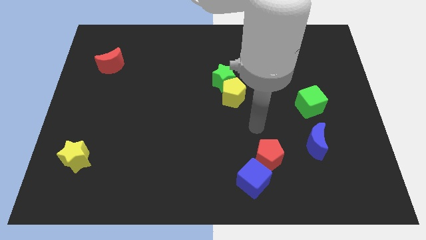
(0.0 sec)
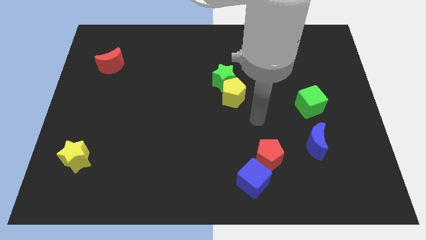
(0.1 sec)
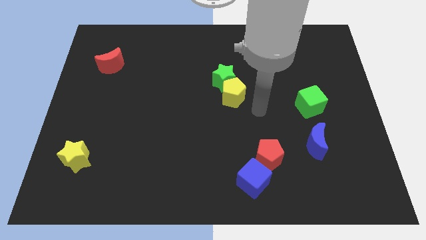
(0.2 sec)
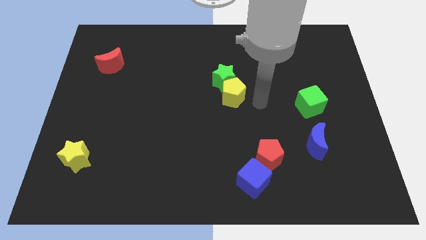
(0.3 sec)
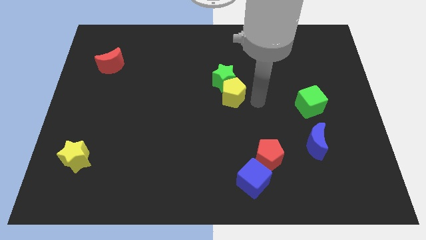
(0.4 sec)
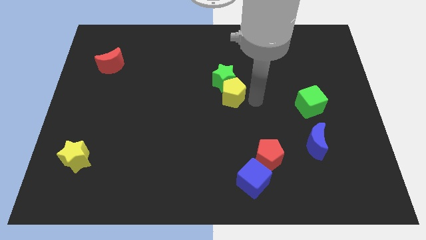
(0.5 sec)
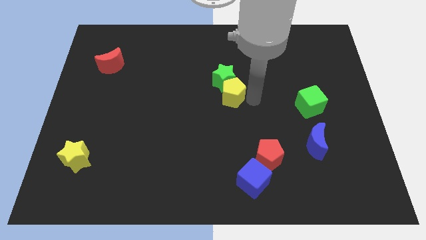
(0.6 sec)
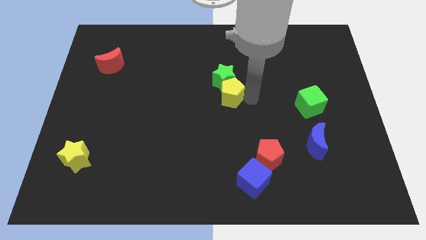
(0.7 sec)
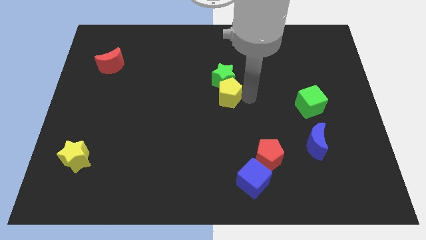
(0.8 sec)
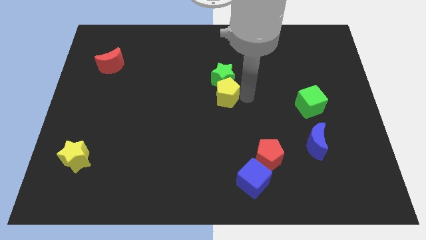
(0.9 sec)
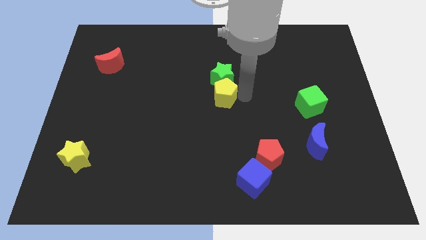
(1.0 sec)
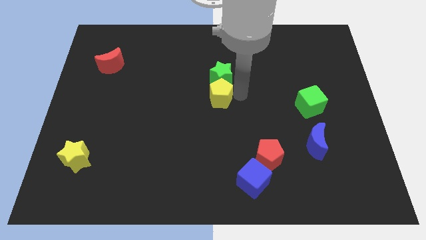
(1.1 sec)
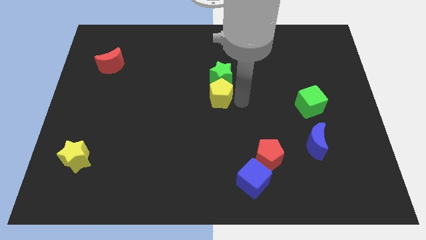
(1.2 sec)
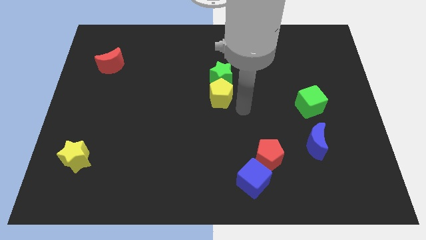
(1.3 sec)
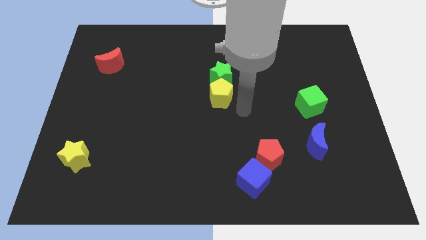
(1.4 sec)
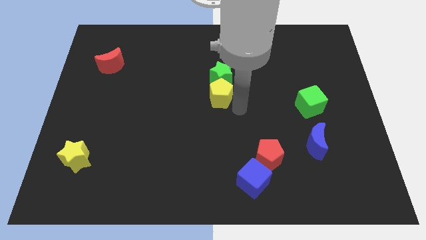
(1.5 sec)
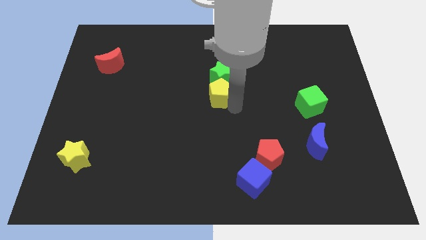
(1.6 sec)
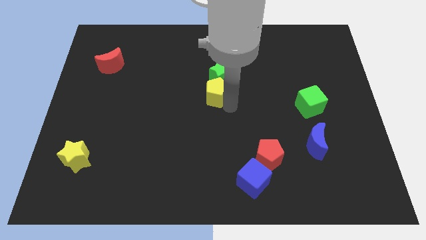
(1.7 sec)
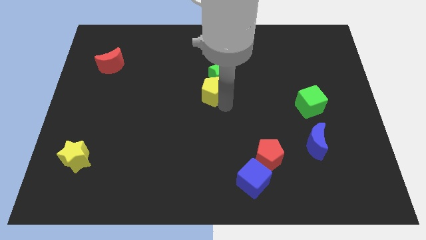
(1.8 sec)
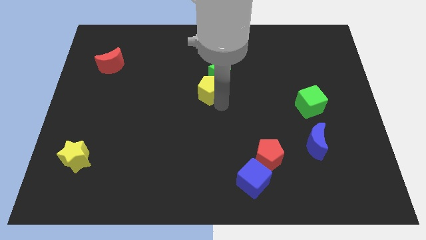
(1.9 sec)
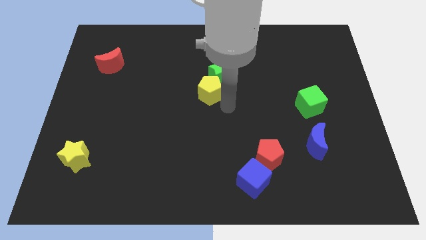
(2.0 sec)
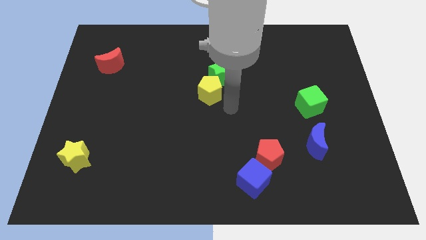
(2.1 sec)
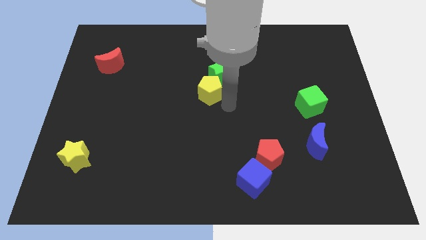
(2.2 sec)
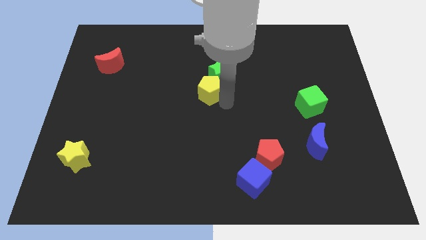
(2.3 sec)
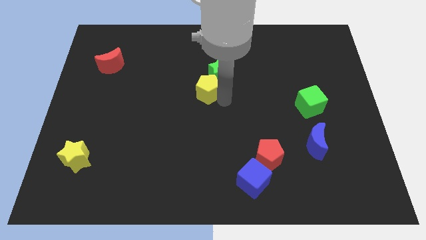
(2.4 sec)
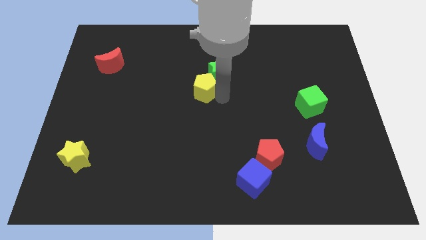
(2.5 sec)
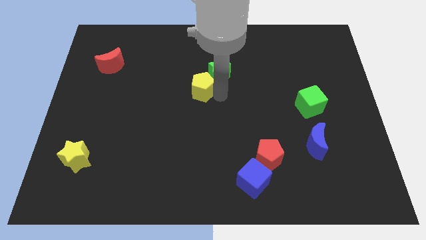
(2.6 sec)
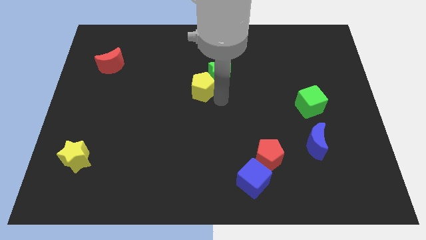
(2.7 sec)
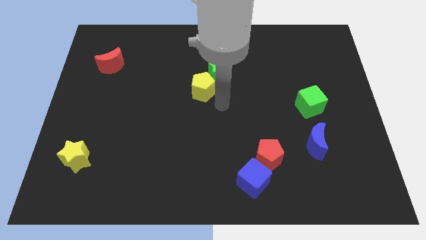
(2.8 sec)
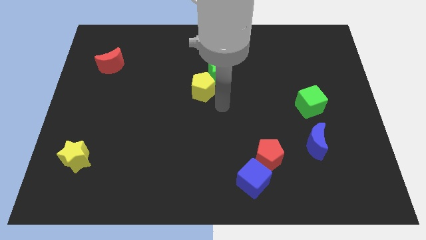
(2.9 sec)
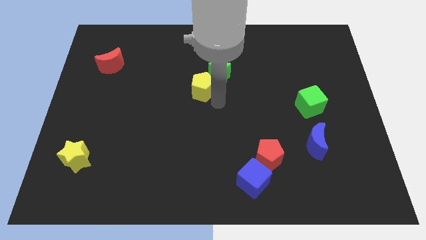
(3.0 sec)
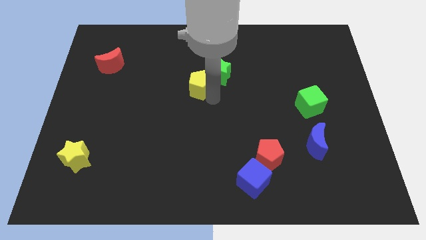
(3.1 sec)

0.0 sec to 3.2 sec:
slightly push the yellow pentagon upwards and left diagonally

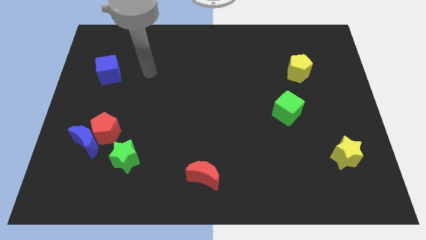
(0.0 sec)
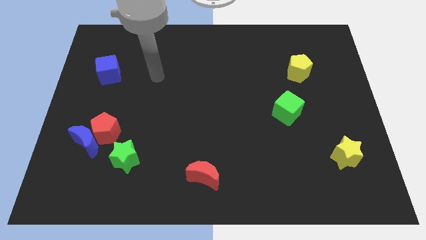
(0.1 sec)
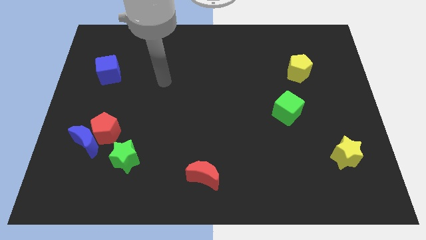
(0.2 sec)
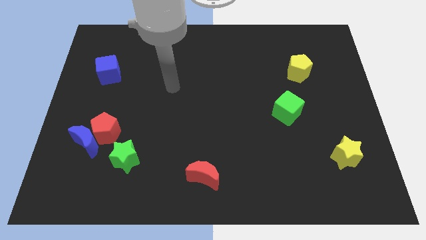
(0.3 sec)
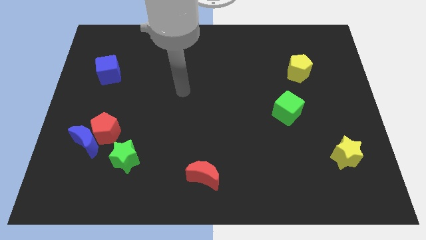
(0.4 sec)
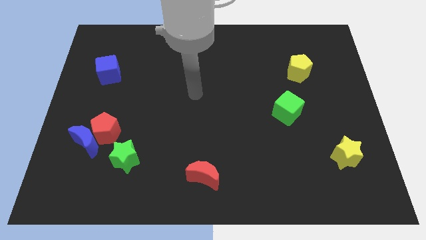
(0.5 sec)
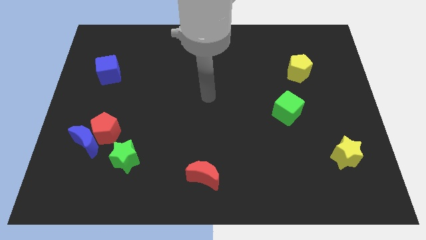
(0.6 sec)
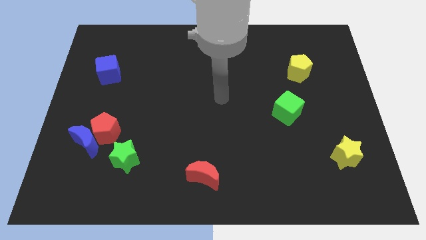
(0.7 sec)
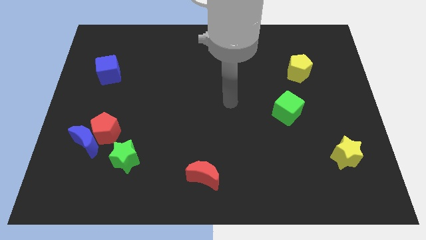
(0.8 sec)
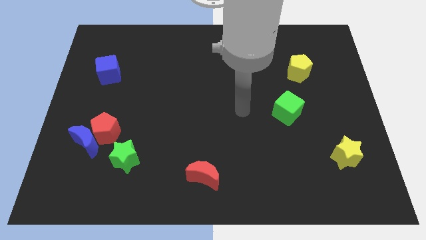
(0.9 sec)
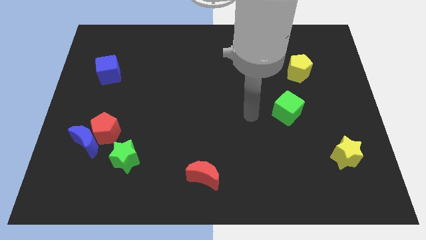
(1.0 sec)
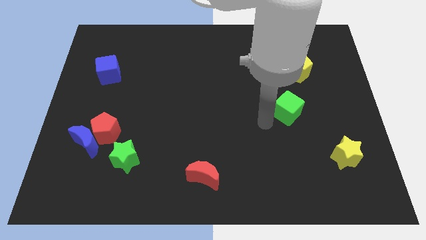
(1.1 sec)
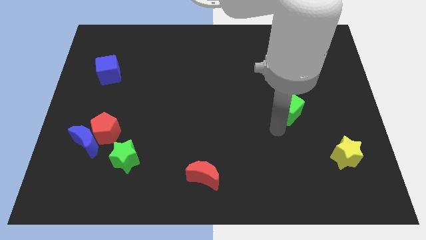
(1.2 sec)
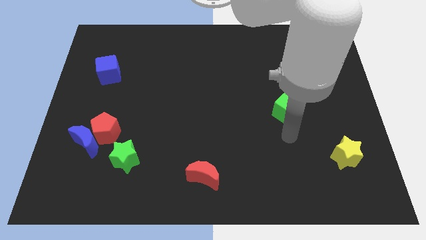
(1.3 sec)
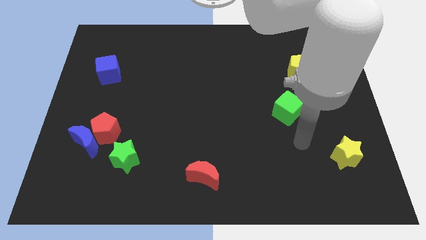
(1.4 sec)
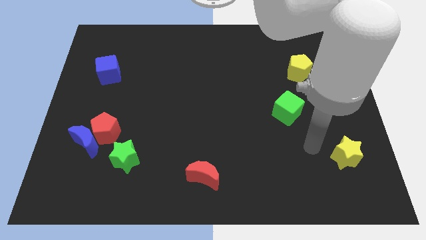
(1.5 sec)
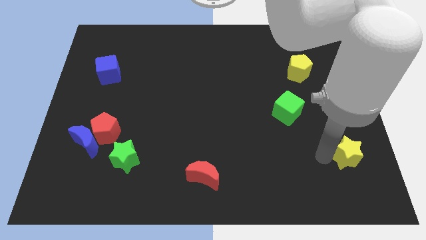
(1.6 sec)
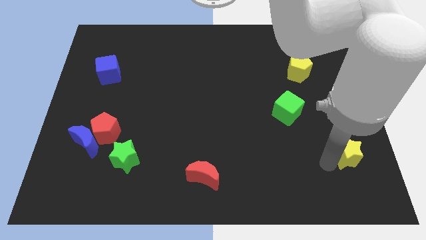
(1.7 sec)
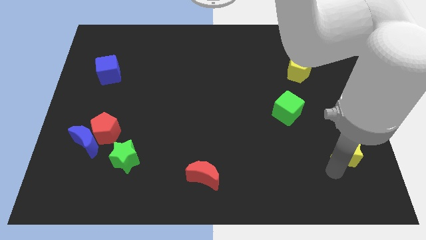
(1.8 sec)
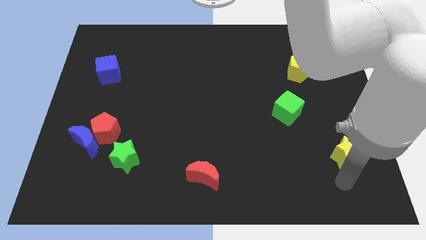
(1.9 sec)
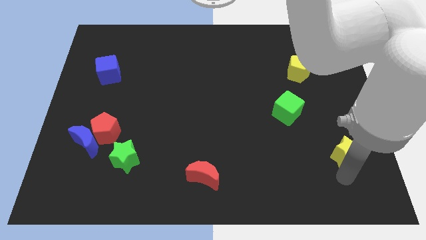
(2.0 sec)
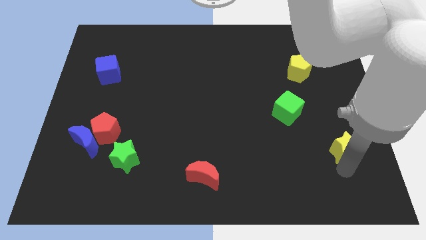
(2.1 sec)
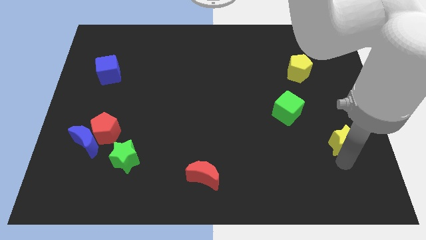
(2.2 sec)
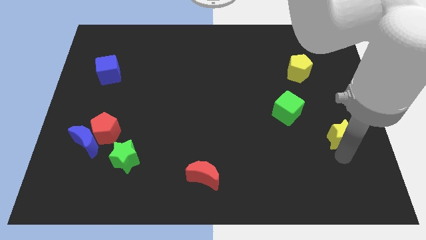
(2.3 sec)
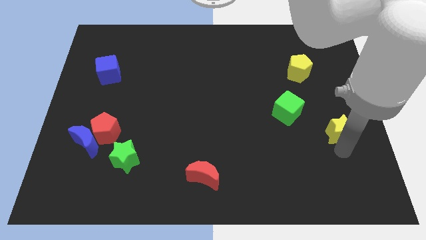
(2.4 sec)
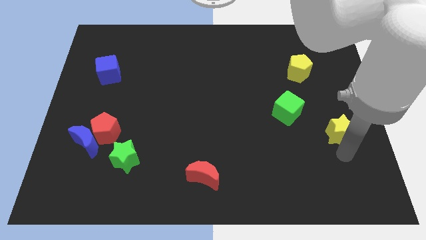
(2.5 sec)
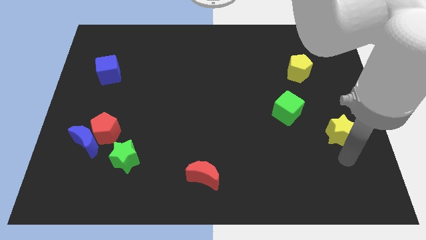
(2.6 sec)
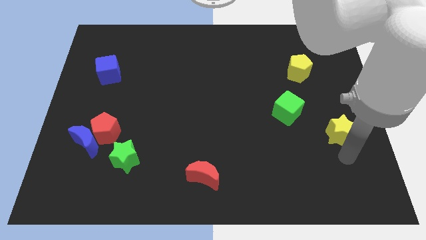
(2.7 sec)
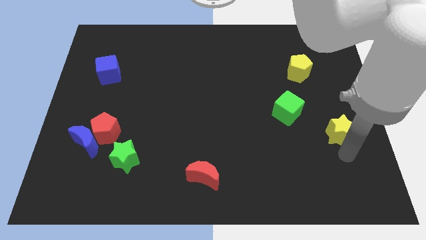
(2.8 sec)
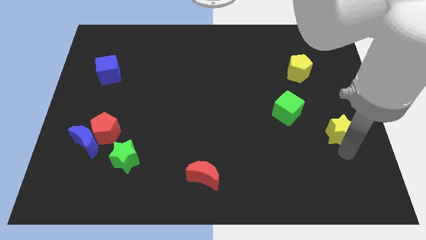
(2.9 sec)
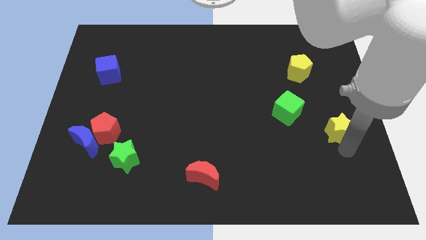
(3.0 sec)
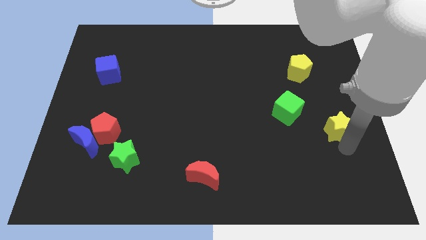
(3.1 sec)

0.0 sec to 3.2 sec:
slightly slide the yellow star upwards

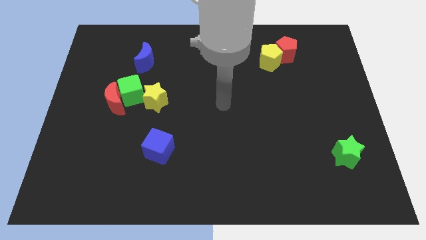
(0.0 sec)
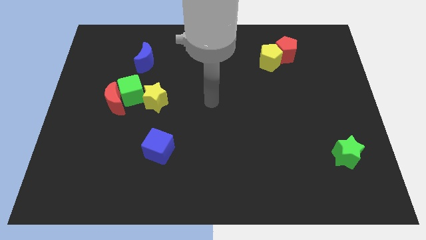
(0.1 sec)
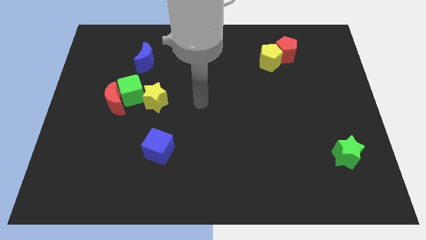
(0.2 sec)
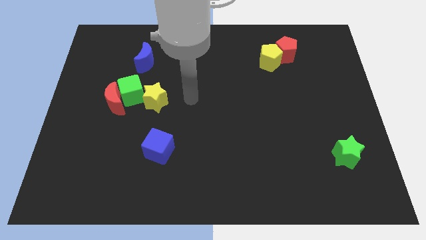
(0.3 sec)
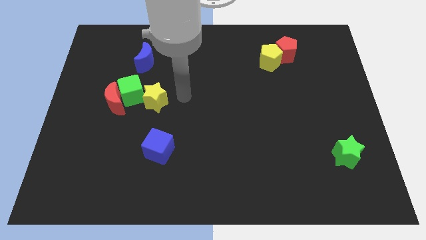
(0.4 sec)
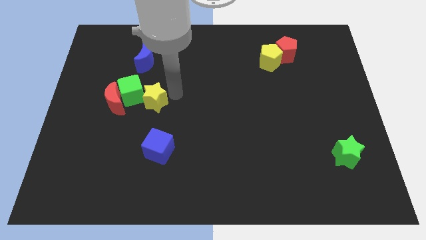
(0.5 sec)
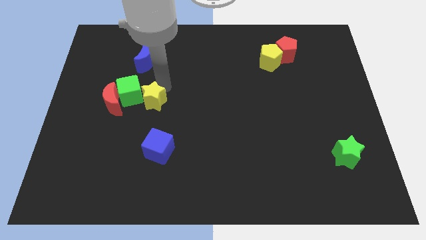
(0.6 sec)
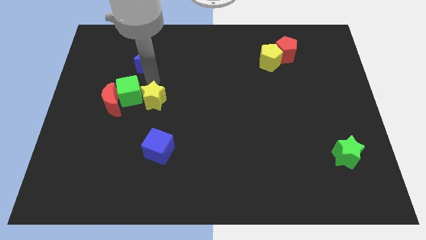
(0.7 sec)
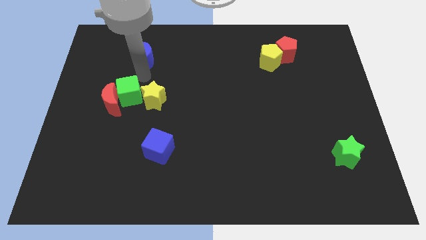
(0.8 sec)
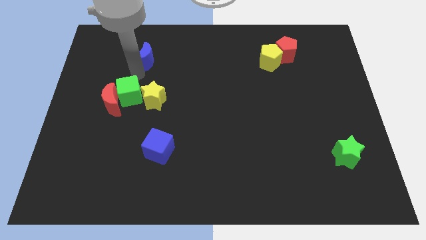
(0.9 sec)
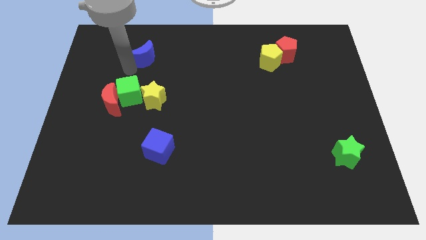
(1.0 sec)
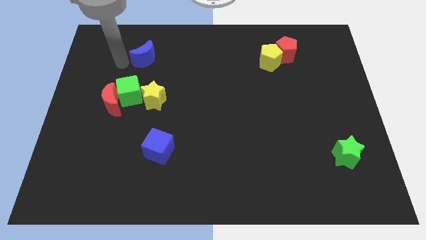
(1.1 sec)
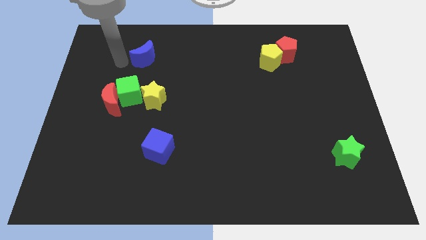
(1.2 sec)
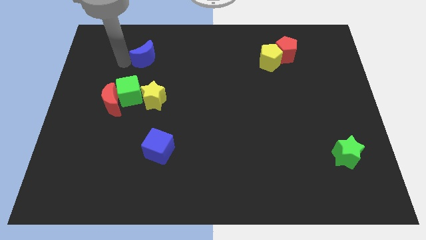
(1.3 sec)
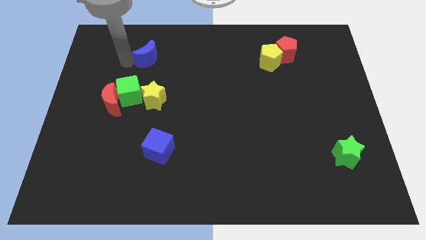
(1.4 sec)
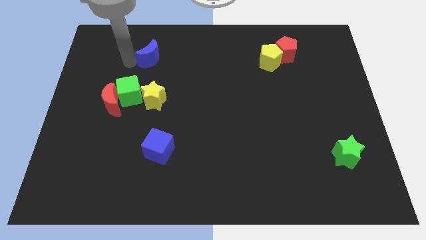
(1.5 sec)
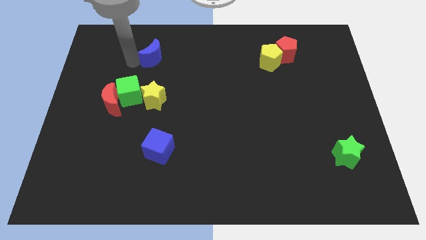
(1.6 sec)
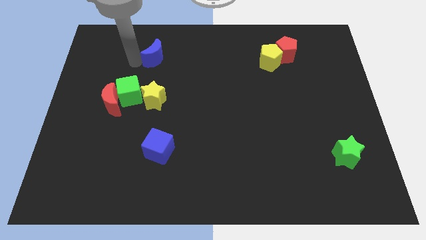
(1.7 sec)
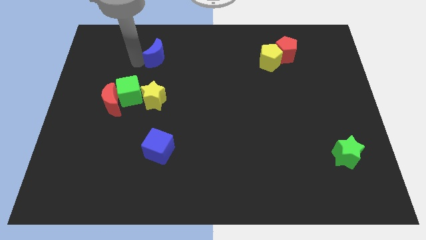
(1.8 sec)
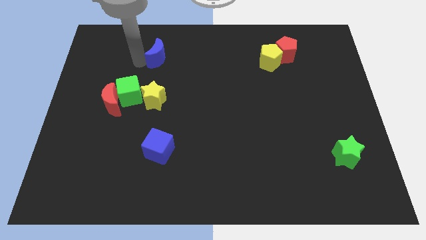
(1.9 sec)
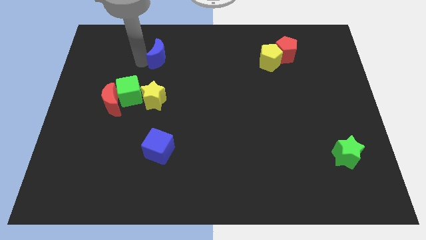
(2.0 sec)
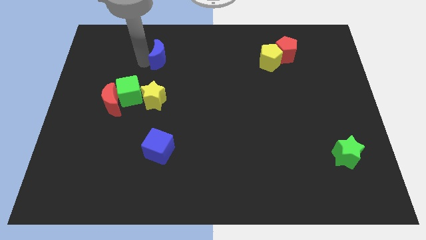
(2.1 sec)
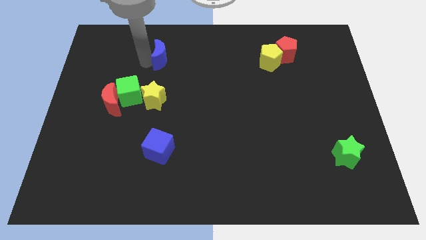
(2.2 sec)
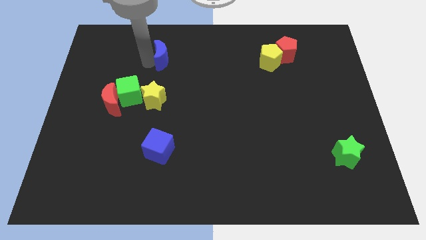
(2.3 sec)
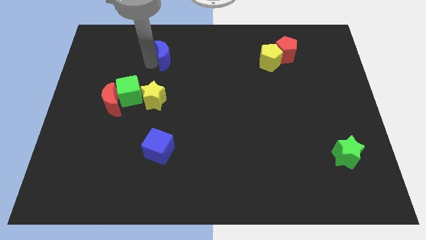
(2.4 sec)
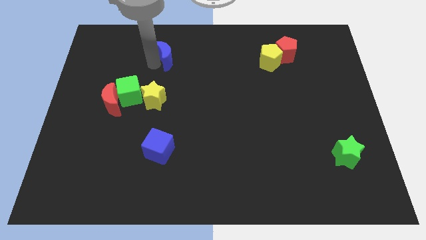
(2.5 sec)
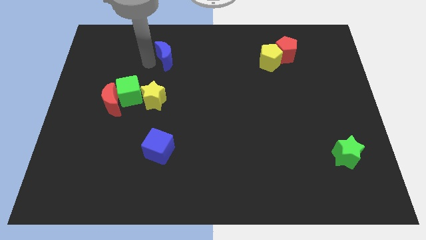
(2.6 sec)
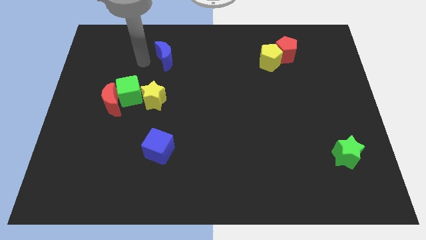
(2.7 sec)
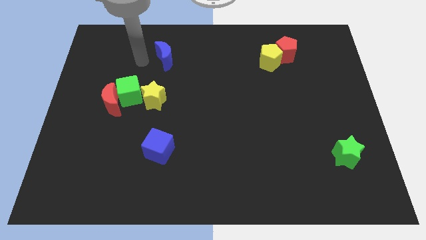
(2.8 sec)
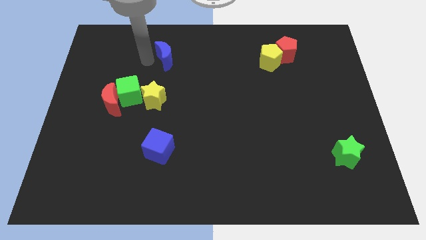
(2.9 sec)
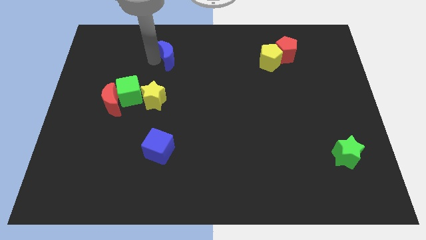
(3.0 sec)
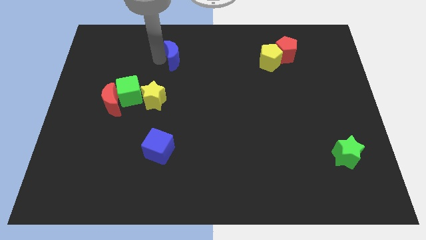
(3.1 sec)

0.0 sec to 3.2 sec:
move the blue moon right a bit
